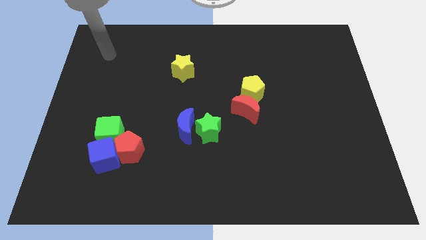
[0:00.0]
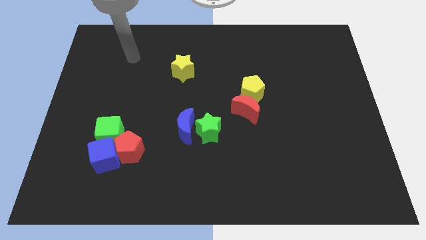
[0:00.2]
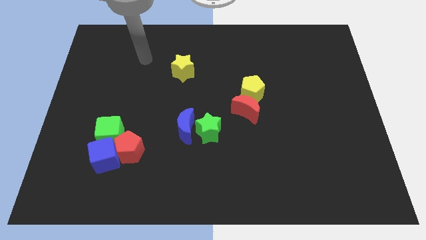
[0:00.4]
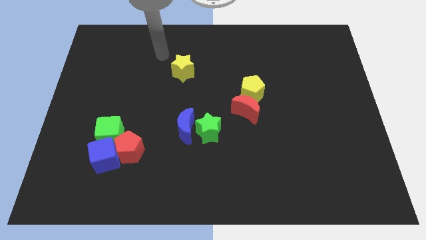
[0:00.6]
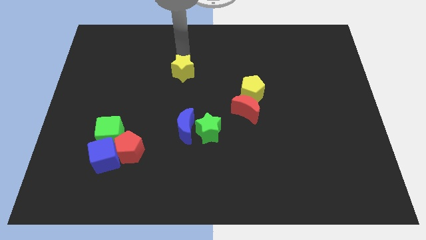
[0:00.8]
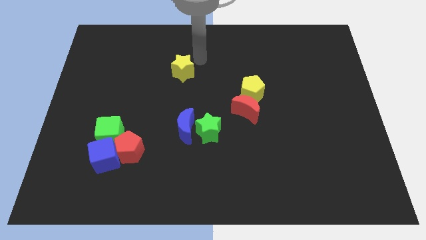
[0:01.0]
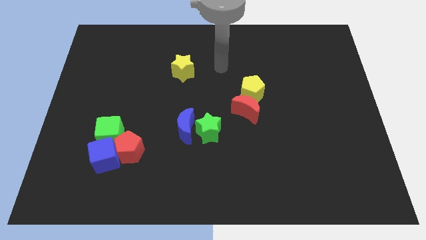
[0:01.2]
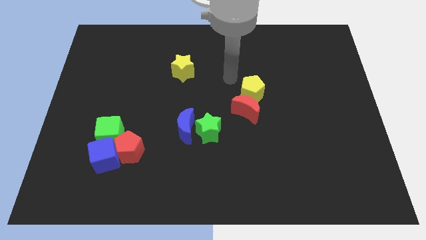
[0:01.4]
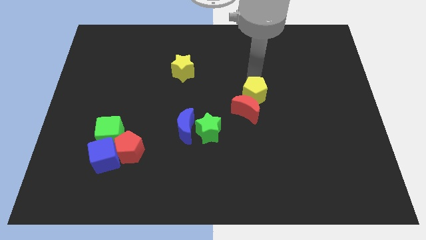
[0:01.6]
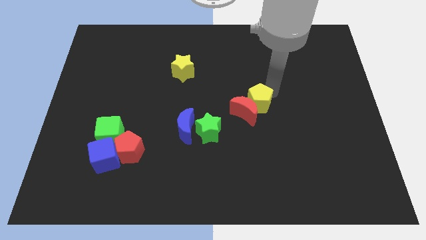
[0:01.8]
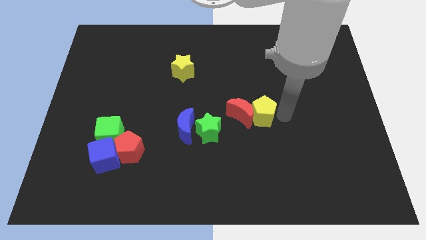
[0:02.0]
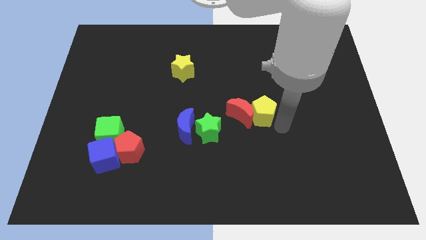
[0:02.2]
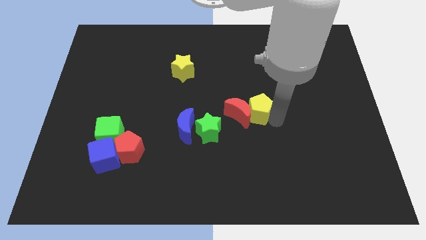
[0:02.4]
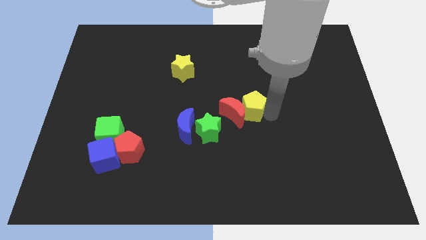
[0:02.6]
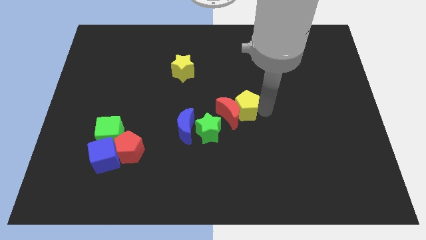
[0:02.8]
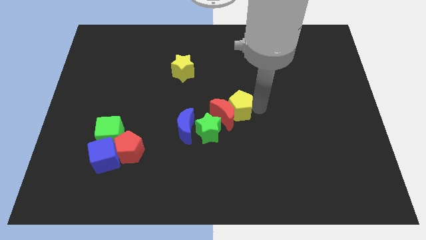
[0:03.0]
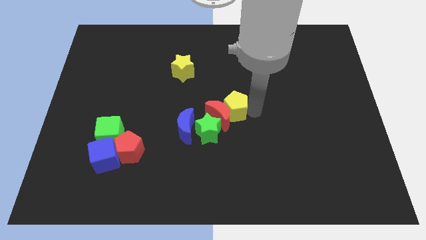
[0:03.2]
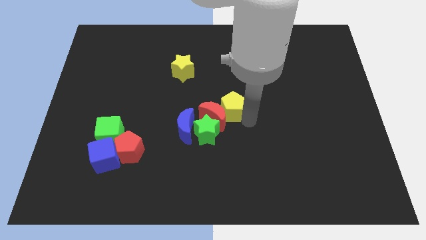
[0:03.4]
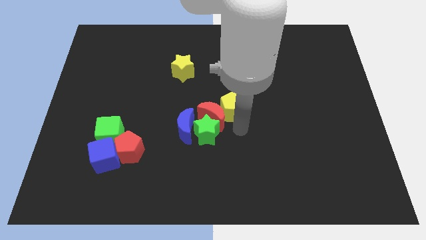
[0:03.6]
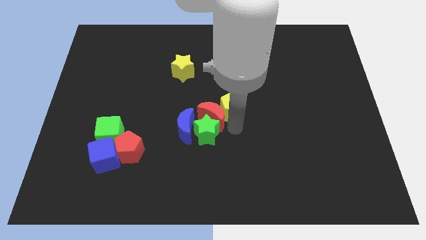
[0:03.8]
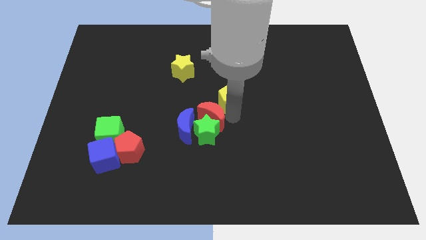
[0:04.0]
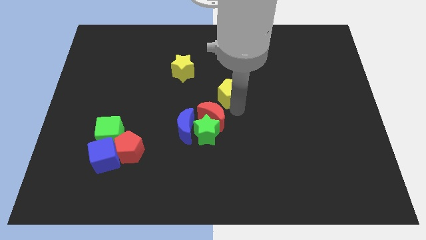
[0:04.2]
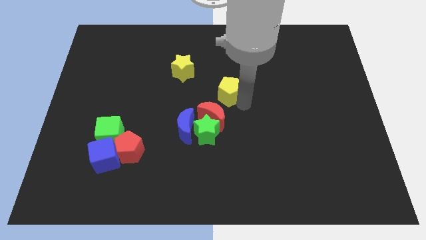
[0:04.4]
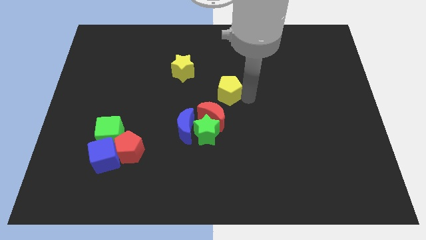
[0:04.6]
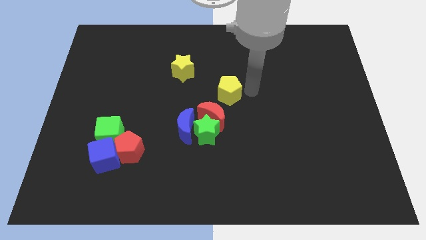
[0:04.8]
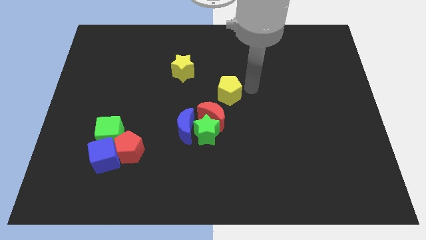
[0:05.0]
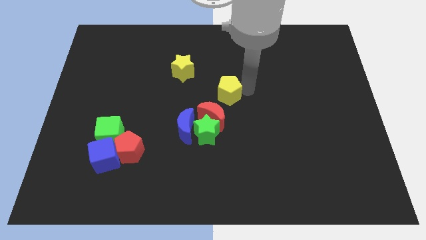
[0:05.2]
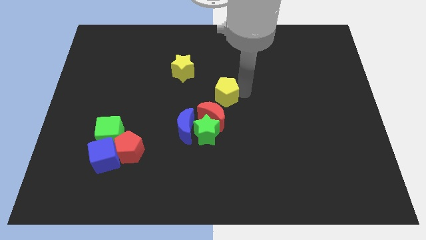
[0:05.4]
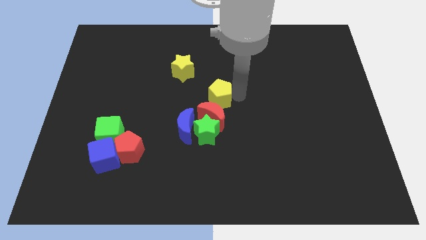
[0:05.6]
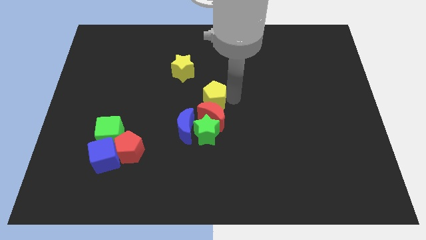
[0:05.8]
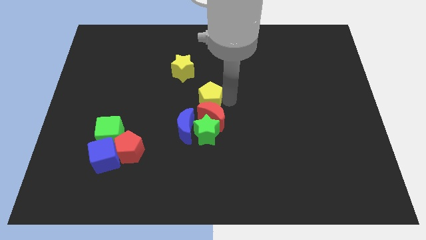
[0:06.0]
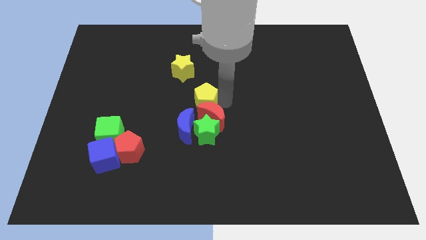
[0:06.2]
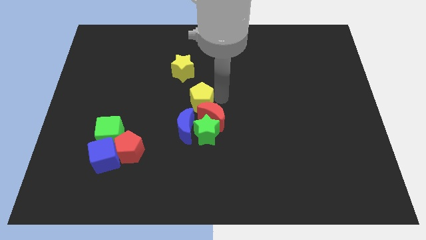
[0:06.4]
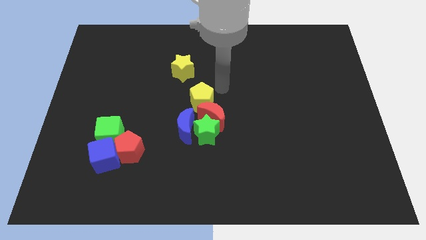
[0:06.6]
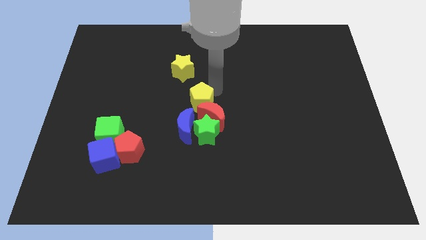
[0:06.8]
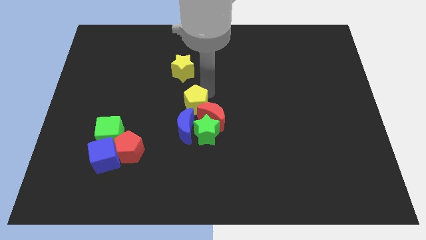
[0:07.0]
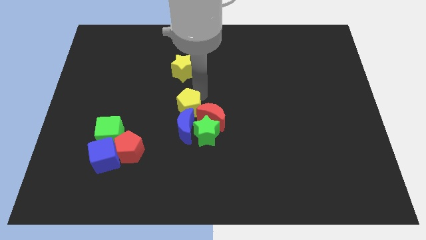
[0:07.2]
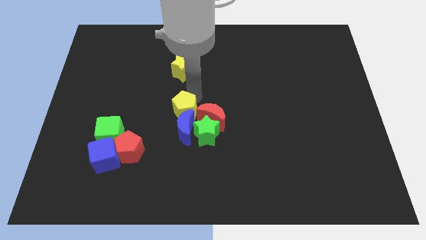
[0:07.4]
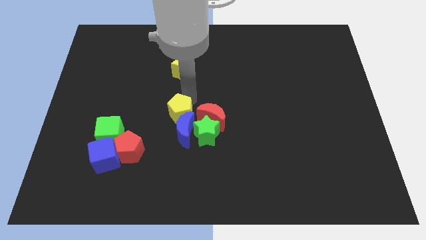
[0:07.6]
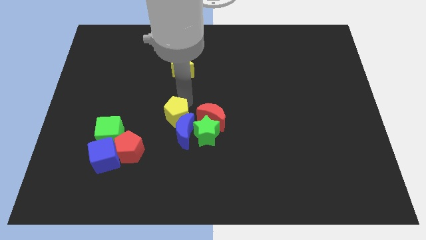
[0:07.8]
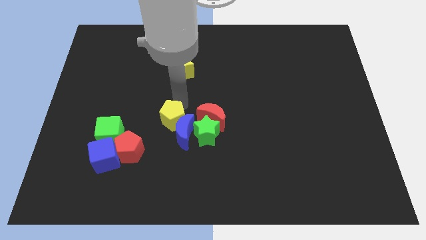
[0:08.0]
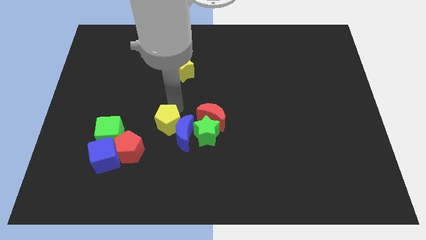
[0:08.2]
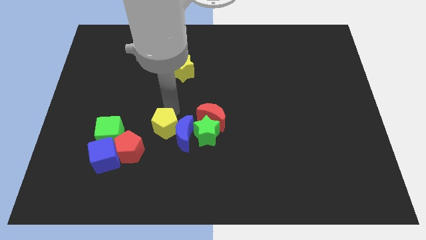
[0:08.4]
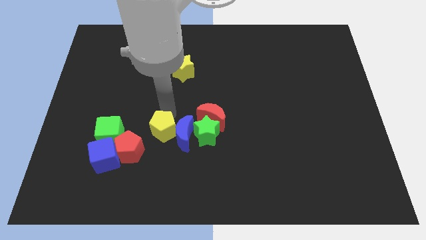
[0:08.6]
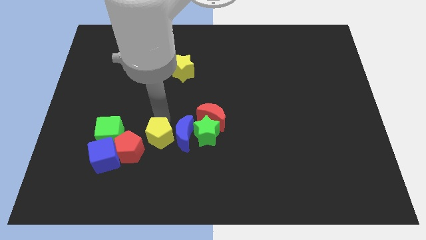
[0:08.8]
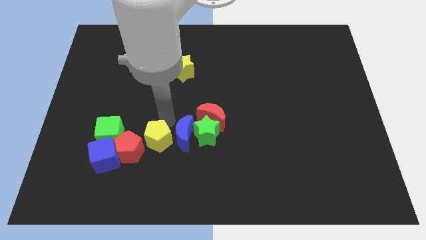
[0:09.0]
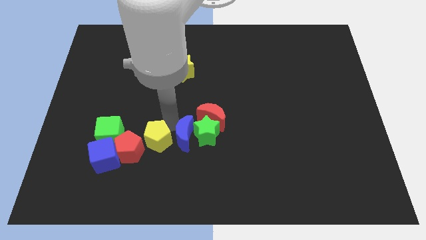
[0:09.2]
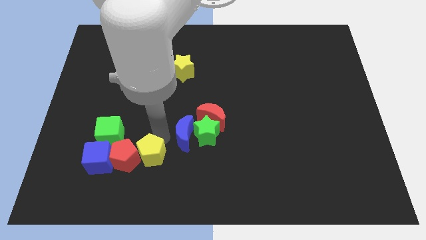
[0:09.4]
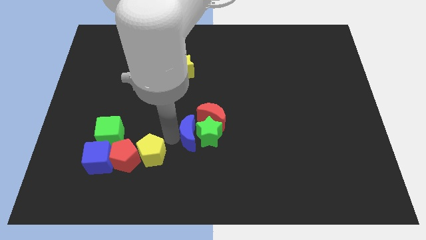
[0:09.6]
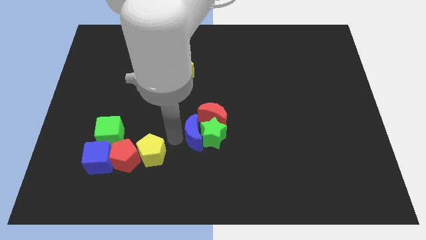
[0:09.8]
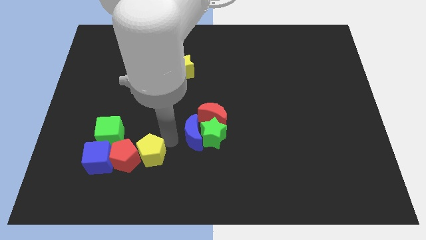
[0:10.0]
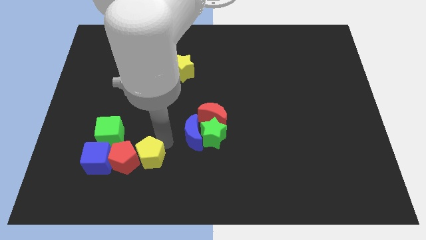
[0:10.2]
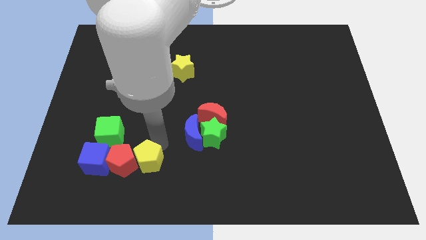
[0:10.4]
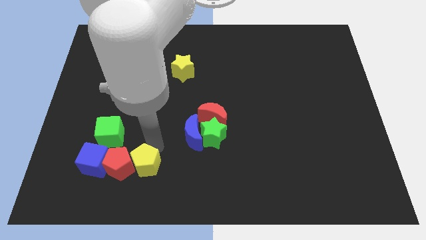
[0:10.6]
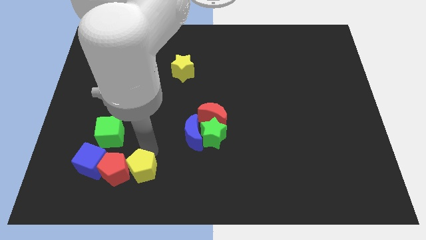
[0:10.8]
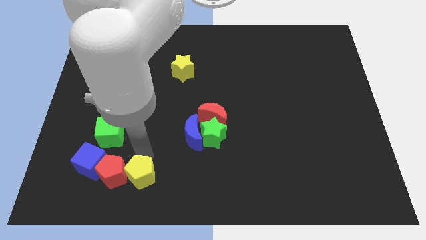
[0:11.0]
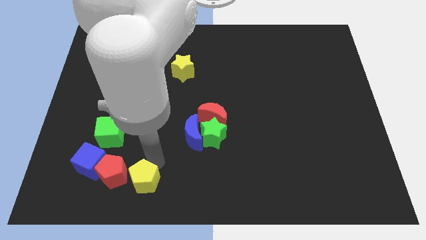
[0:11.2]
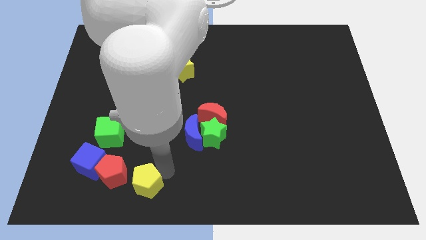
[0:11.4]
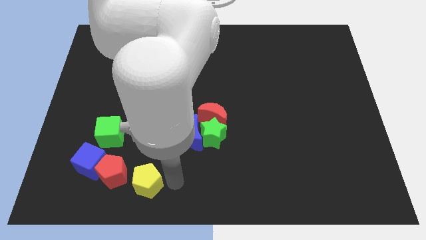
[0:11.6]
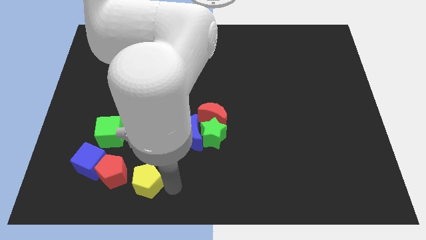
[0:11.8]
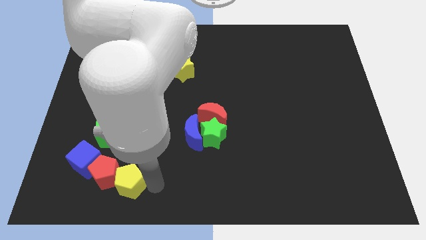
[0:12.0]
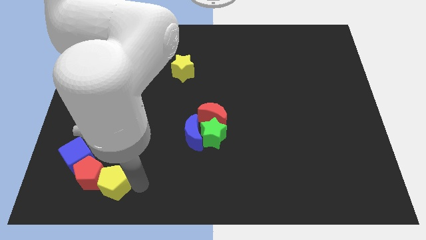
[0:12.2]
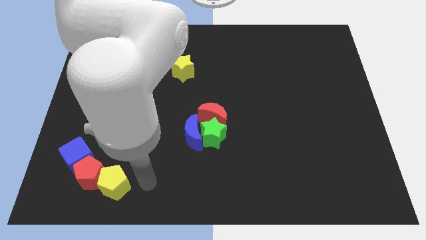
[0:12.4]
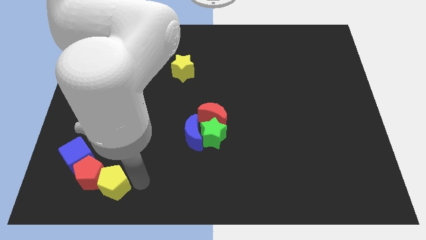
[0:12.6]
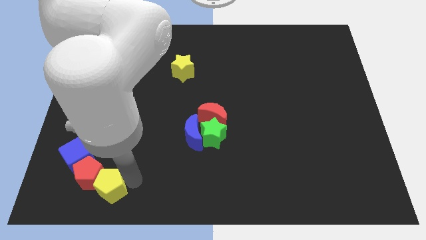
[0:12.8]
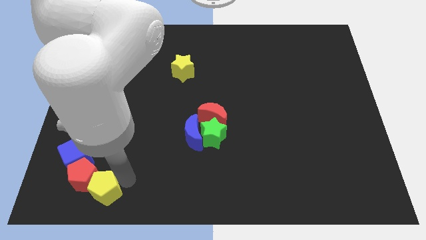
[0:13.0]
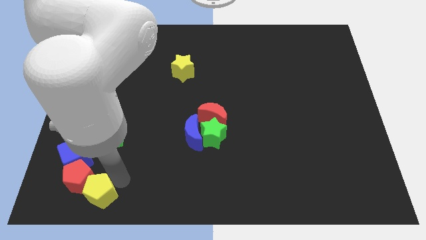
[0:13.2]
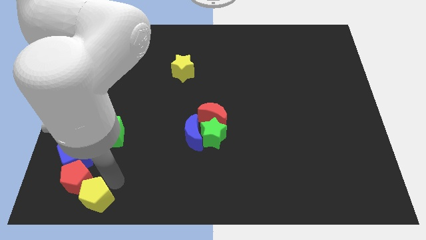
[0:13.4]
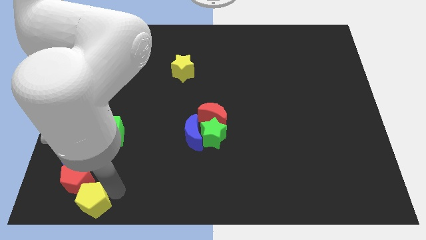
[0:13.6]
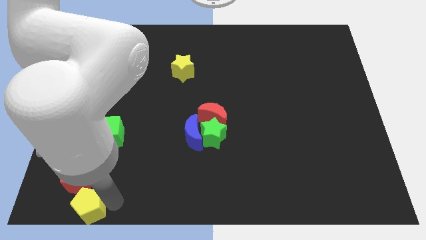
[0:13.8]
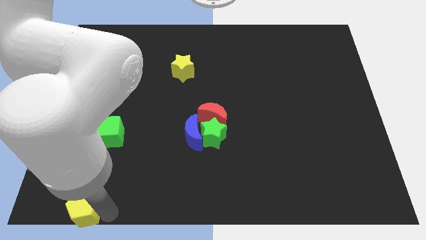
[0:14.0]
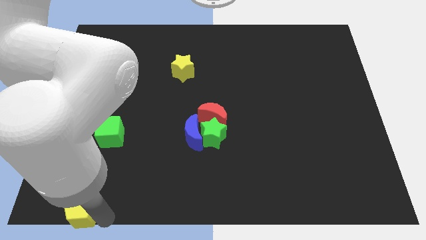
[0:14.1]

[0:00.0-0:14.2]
move the yellow pentagon to the bottom left of the board
